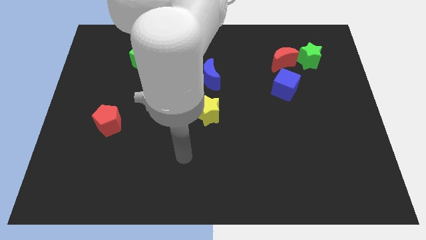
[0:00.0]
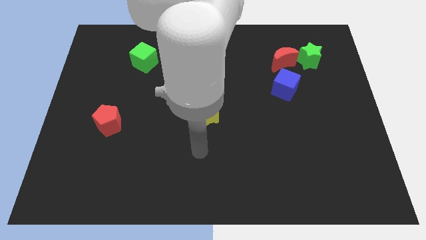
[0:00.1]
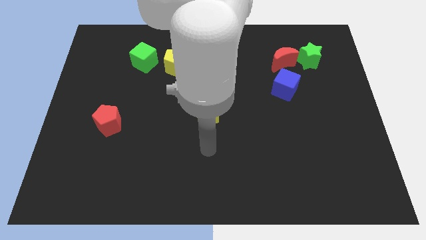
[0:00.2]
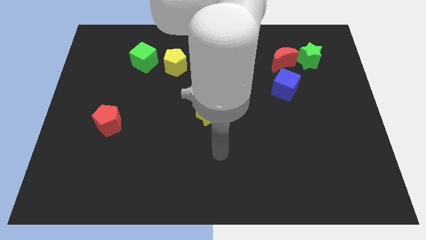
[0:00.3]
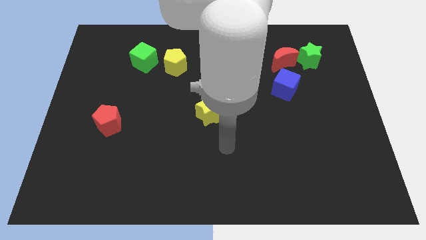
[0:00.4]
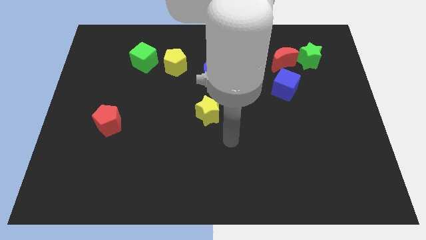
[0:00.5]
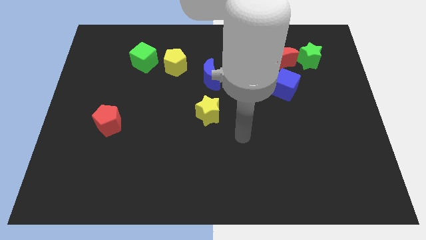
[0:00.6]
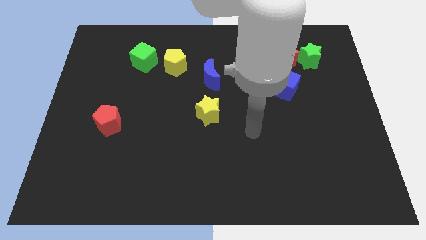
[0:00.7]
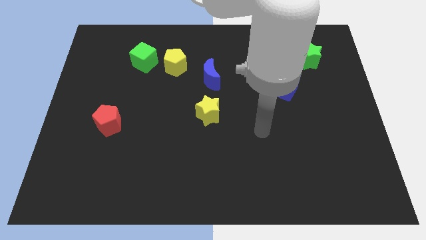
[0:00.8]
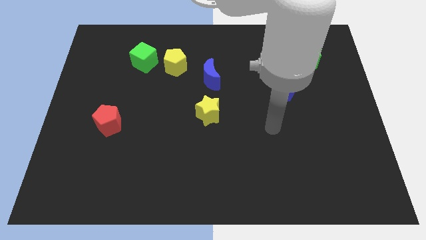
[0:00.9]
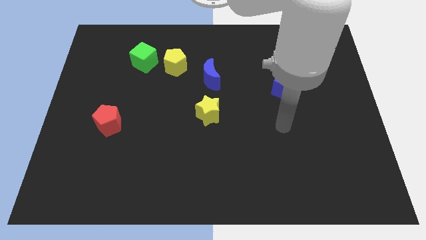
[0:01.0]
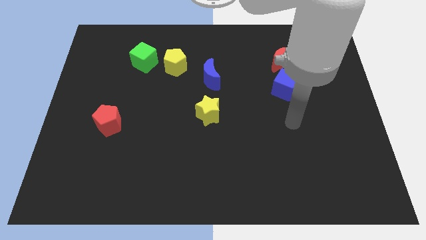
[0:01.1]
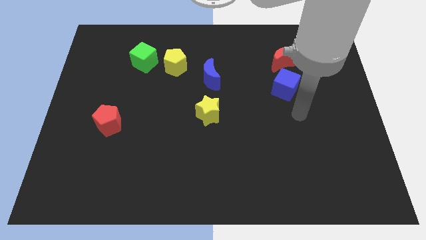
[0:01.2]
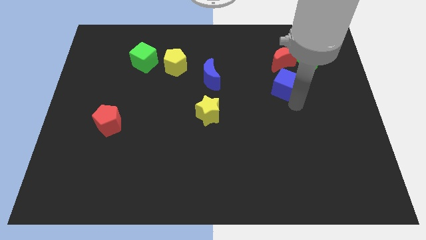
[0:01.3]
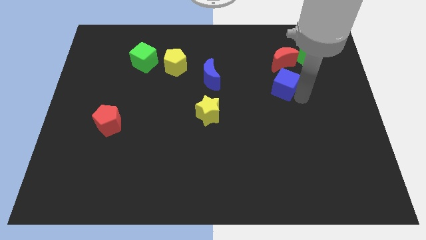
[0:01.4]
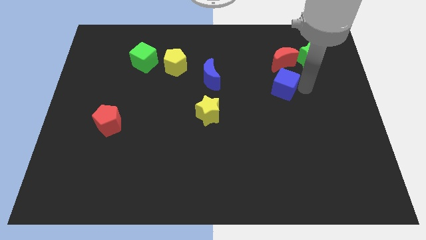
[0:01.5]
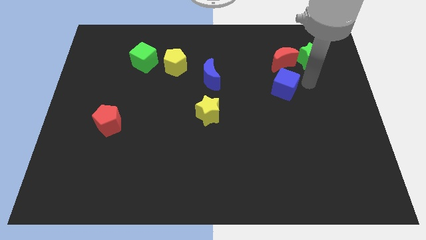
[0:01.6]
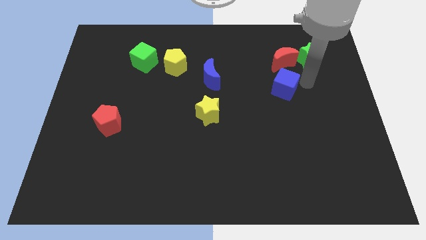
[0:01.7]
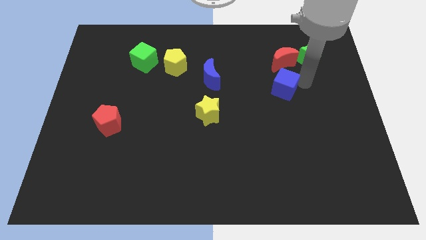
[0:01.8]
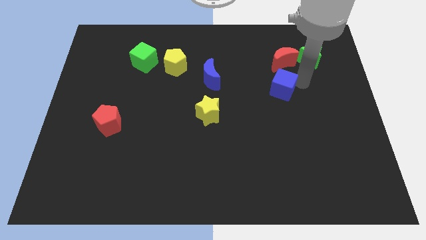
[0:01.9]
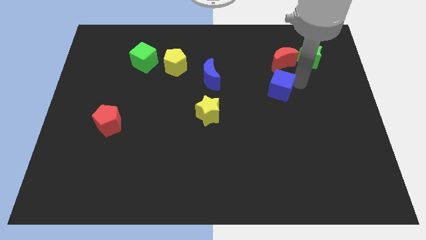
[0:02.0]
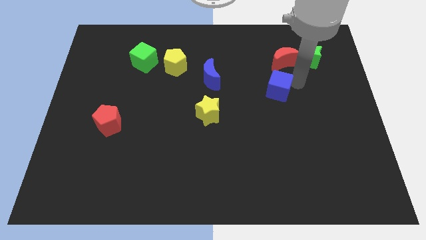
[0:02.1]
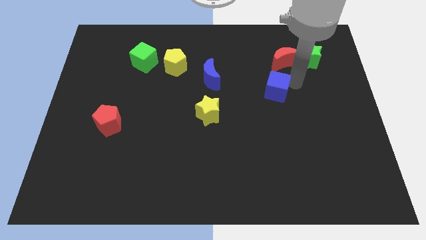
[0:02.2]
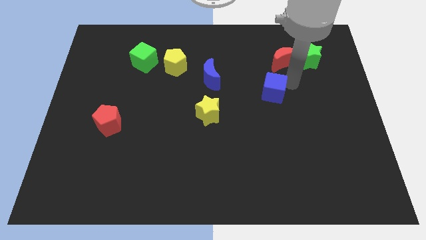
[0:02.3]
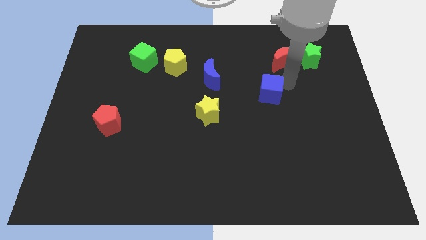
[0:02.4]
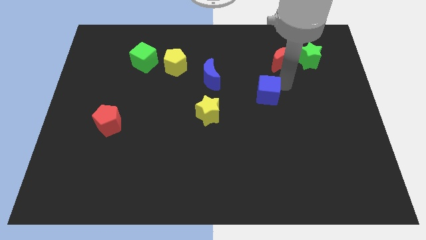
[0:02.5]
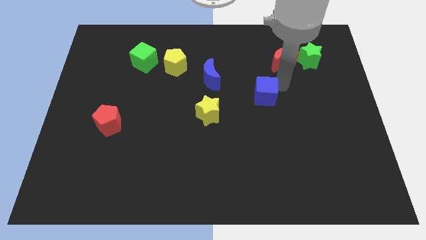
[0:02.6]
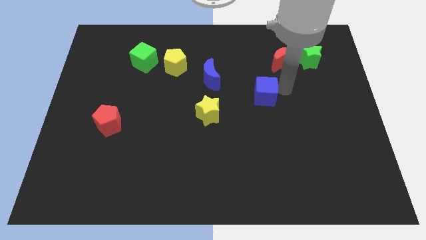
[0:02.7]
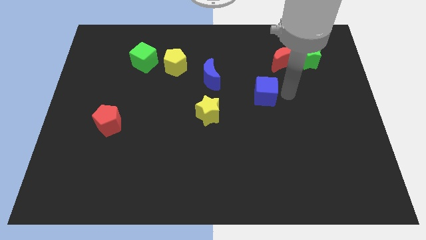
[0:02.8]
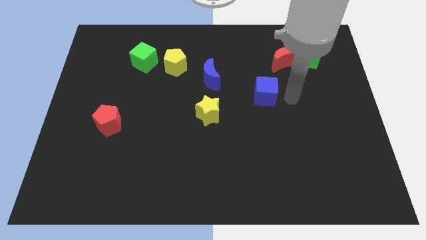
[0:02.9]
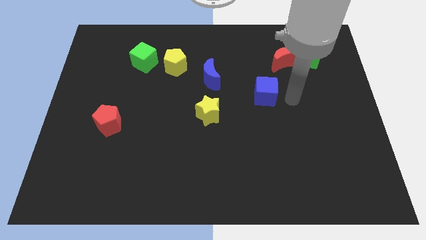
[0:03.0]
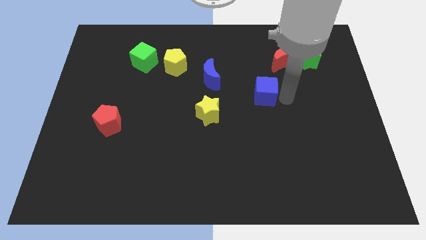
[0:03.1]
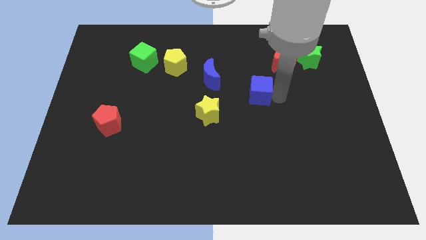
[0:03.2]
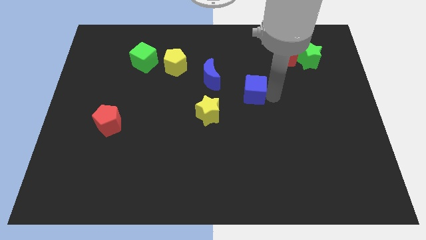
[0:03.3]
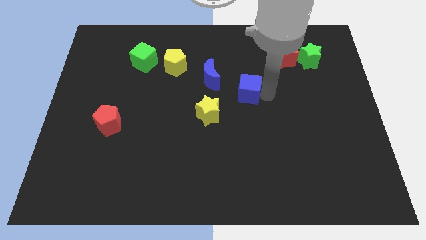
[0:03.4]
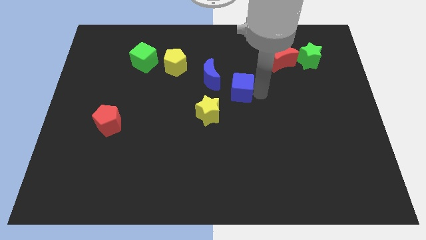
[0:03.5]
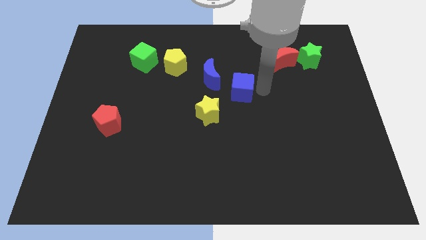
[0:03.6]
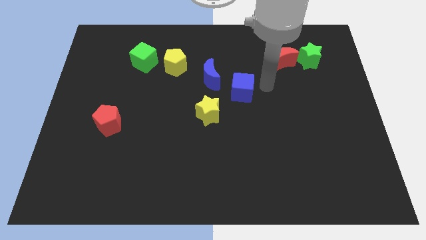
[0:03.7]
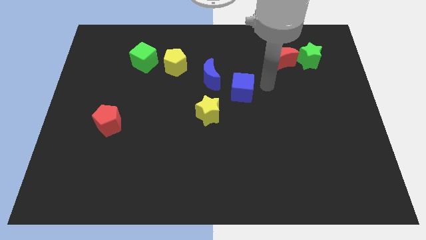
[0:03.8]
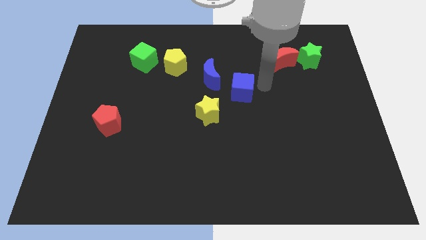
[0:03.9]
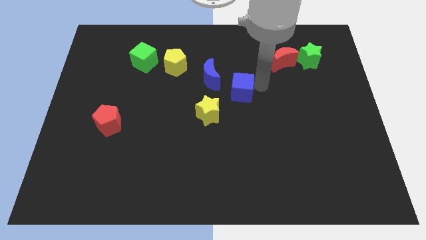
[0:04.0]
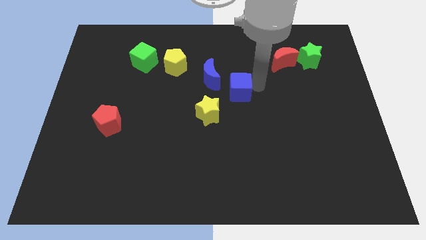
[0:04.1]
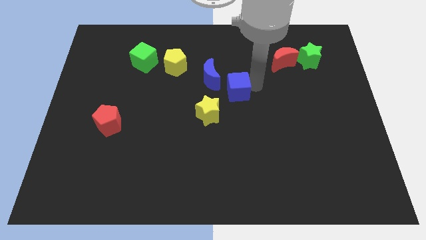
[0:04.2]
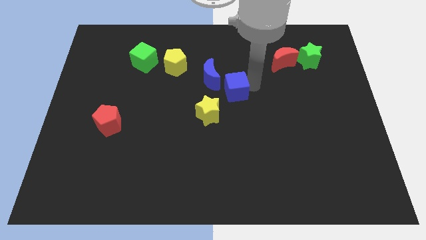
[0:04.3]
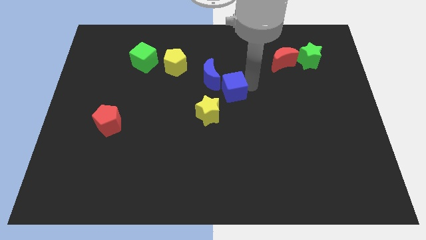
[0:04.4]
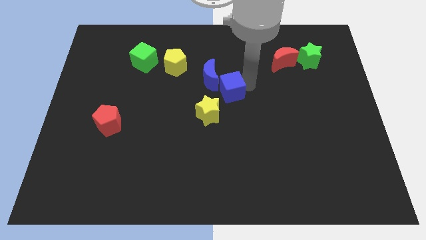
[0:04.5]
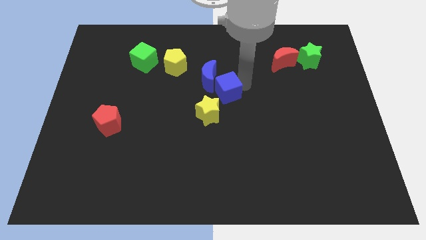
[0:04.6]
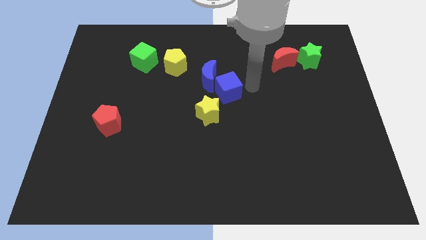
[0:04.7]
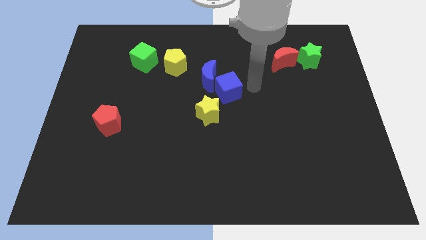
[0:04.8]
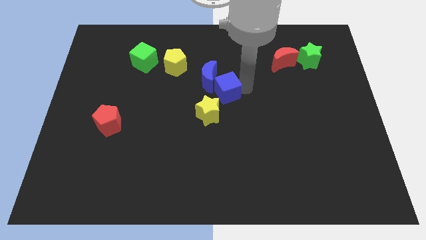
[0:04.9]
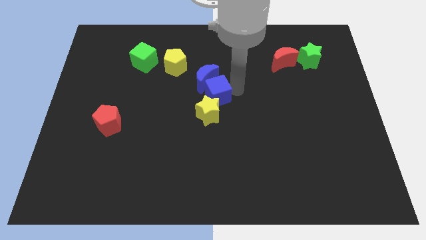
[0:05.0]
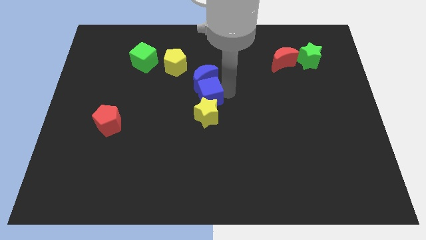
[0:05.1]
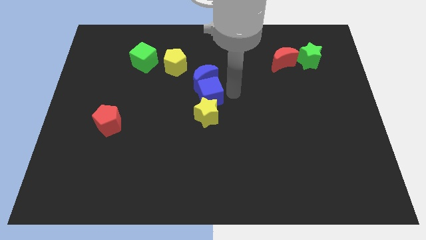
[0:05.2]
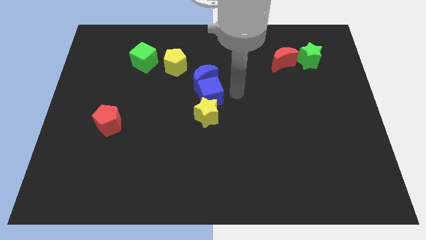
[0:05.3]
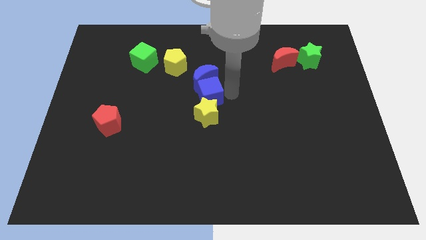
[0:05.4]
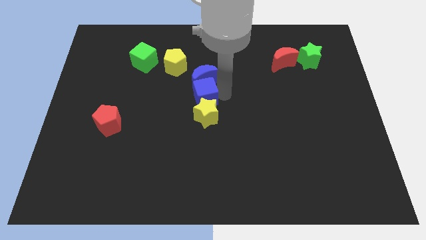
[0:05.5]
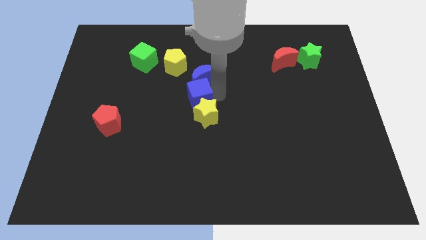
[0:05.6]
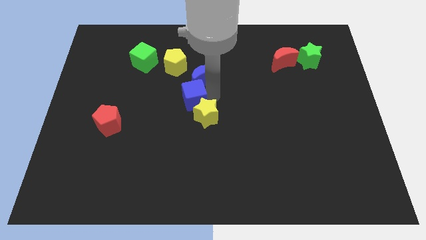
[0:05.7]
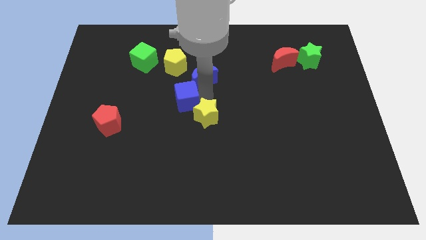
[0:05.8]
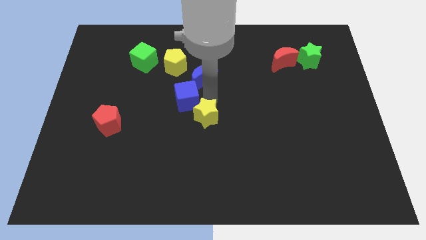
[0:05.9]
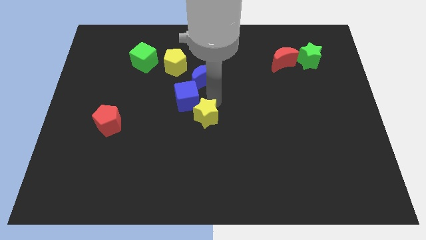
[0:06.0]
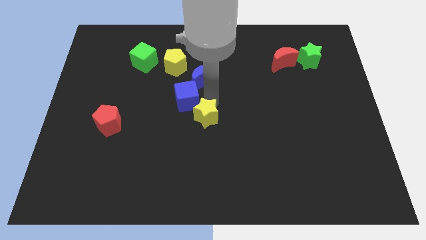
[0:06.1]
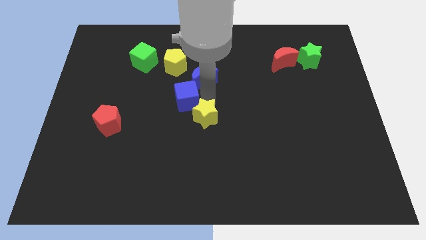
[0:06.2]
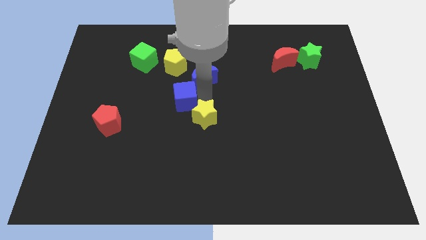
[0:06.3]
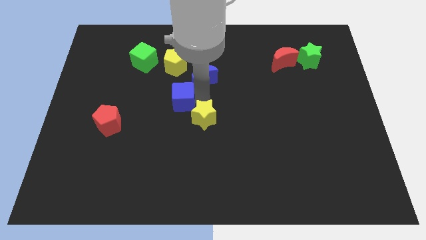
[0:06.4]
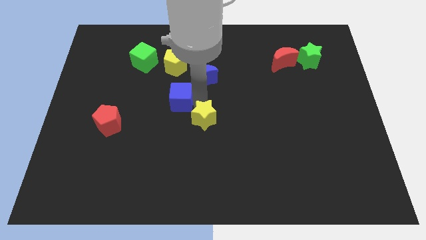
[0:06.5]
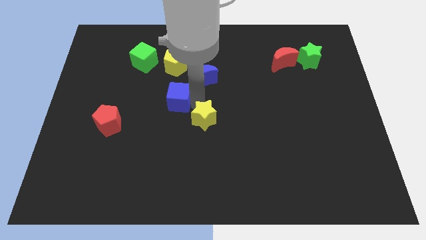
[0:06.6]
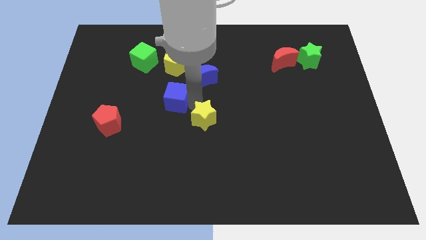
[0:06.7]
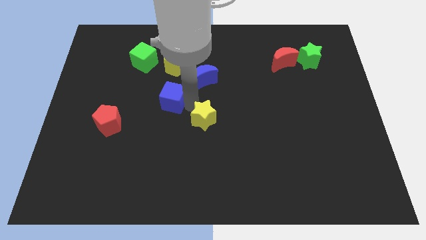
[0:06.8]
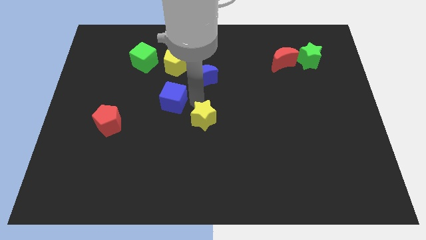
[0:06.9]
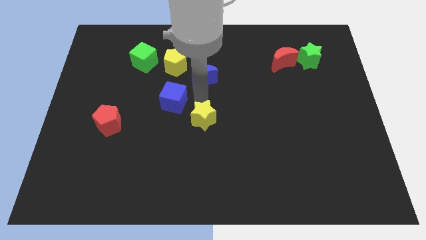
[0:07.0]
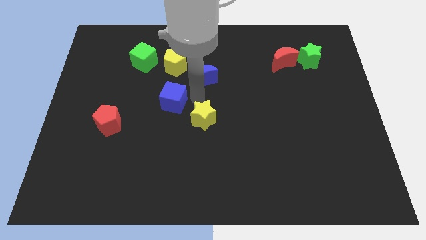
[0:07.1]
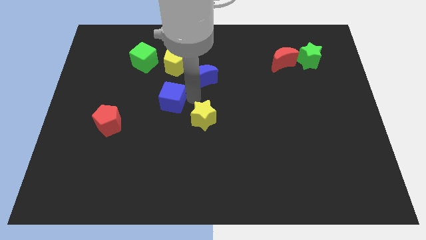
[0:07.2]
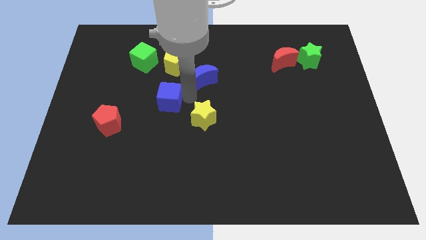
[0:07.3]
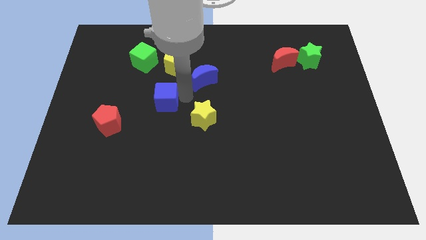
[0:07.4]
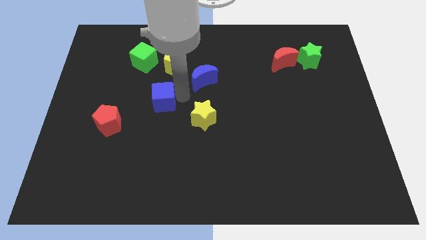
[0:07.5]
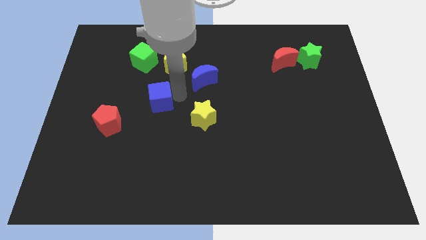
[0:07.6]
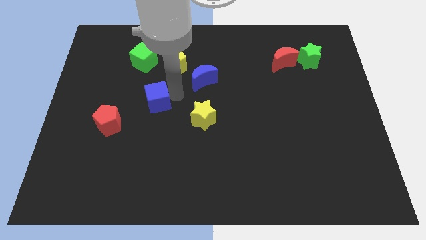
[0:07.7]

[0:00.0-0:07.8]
push the blue cube to the top right side of the red pentagon
